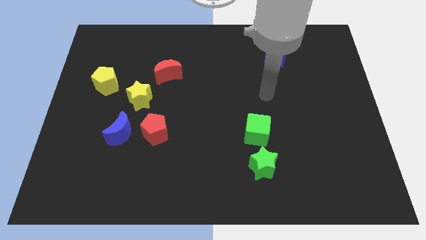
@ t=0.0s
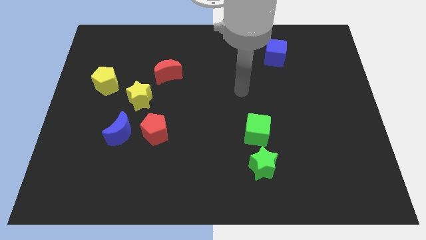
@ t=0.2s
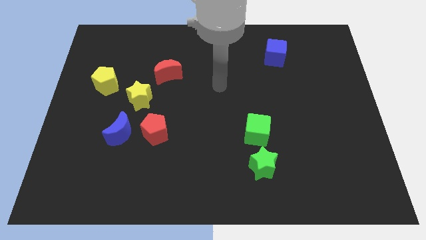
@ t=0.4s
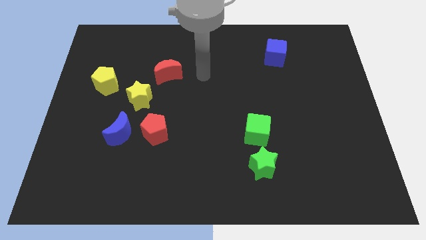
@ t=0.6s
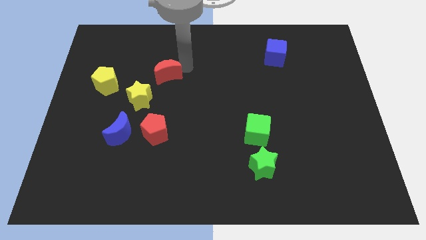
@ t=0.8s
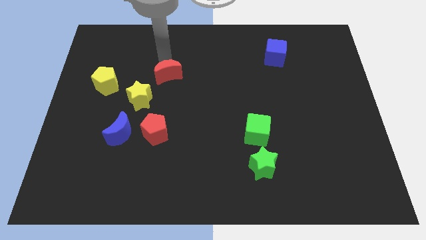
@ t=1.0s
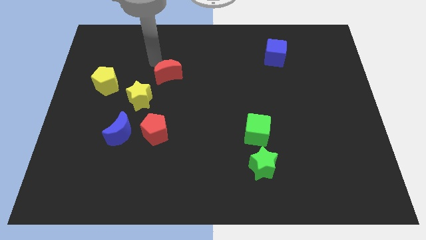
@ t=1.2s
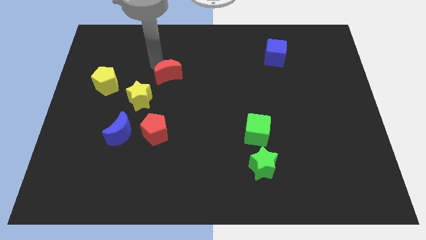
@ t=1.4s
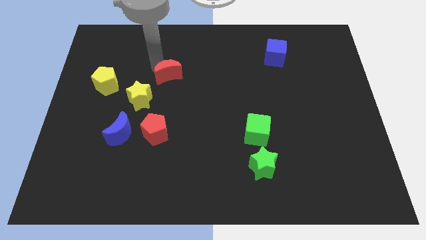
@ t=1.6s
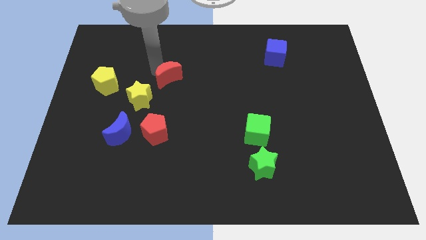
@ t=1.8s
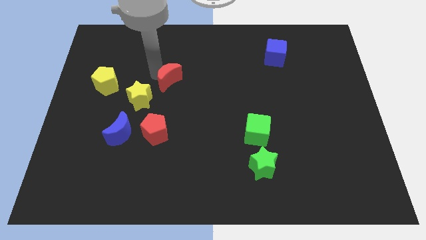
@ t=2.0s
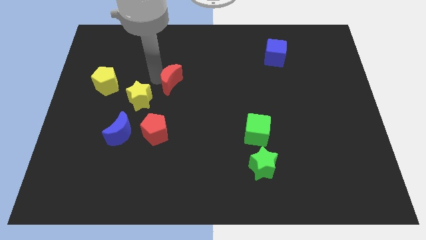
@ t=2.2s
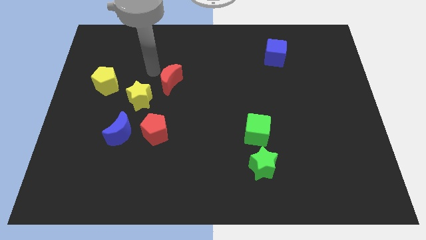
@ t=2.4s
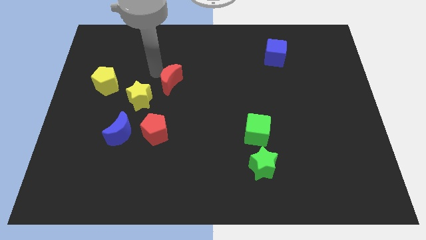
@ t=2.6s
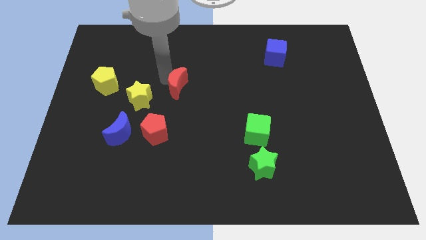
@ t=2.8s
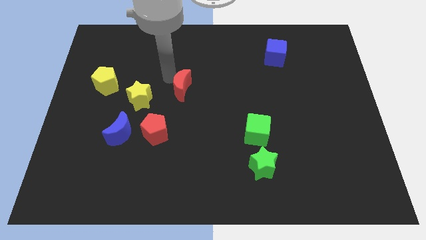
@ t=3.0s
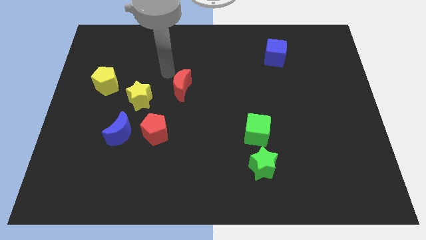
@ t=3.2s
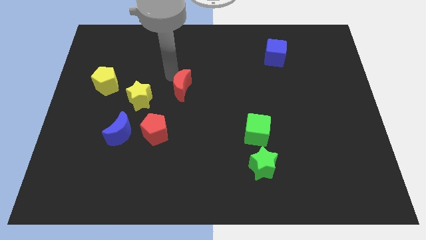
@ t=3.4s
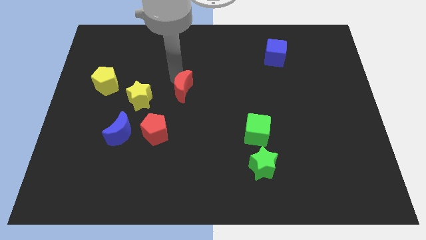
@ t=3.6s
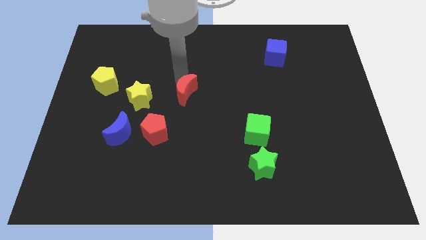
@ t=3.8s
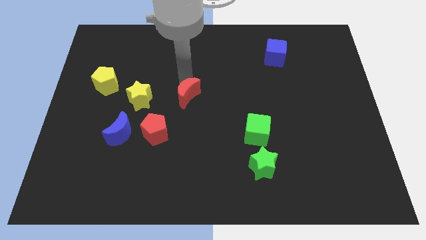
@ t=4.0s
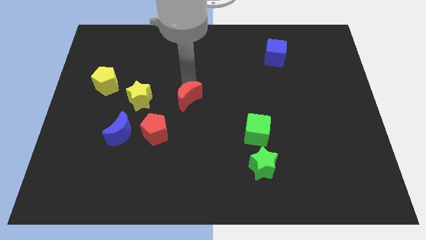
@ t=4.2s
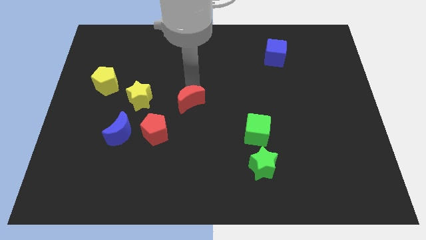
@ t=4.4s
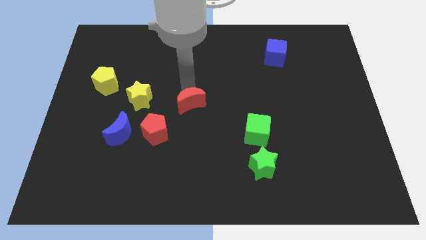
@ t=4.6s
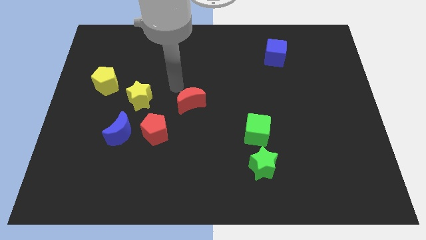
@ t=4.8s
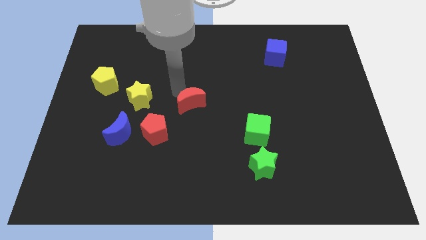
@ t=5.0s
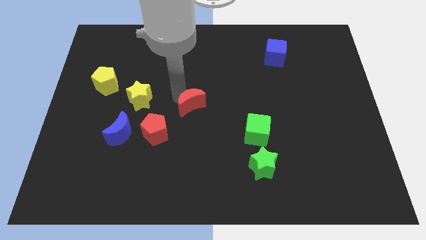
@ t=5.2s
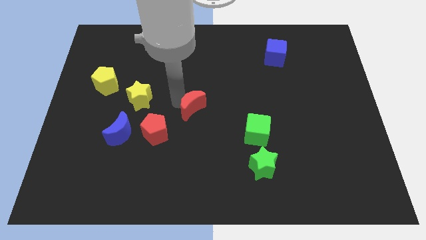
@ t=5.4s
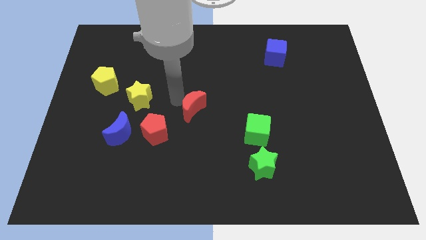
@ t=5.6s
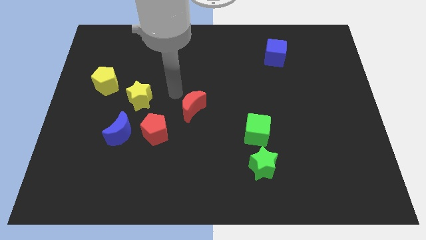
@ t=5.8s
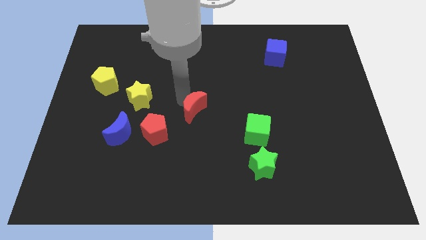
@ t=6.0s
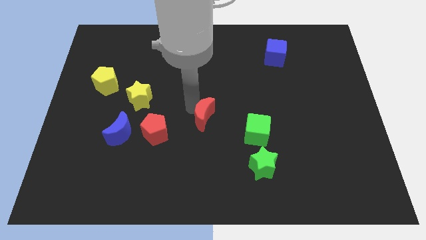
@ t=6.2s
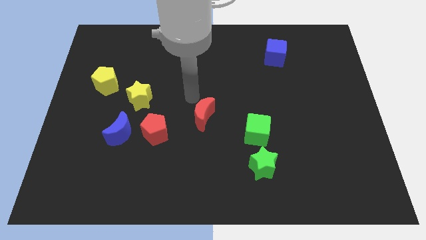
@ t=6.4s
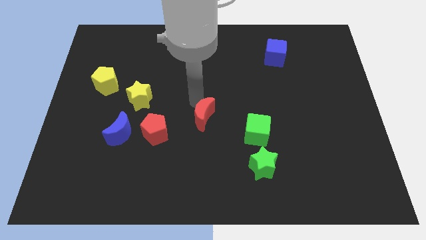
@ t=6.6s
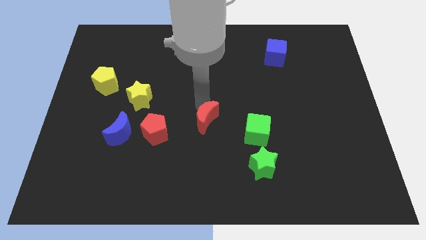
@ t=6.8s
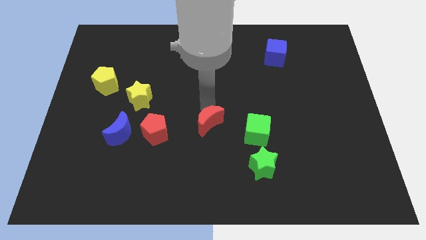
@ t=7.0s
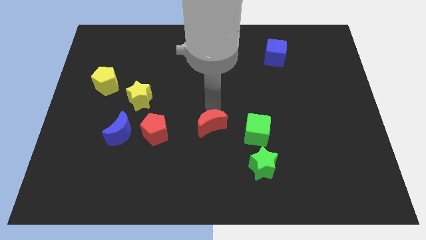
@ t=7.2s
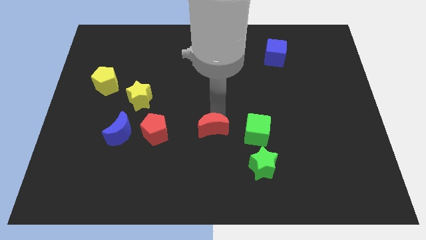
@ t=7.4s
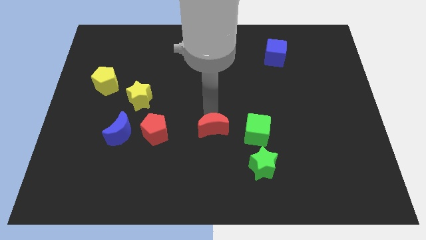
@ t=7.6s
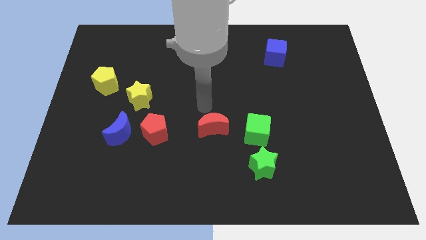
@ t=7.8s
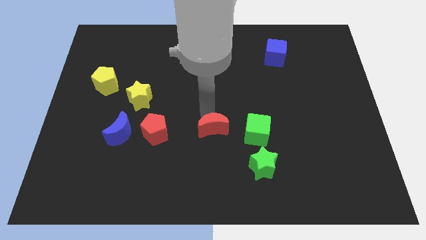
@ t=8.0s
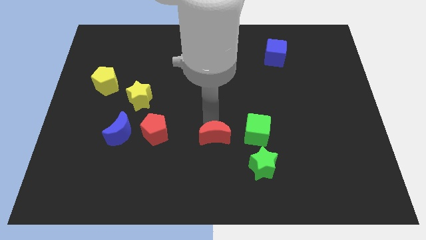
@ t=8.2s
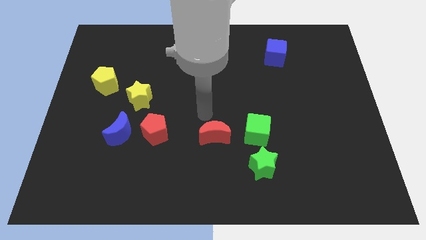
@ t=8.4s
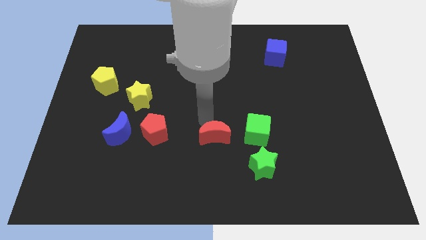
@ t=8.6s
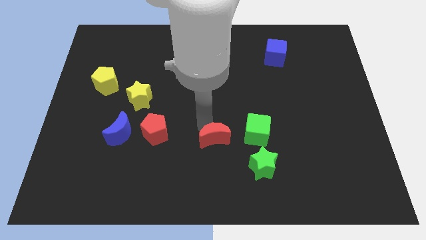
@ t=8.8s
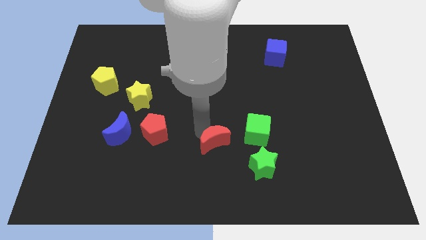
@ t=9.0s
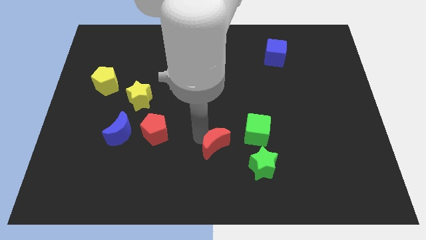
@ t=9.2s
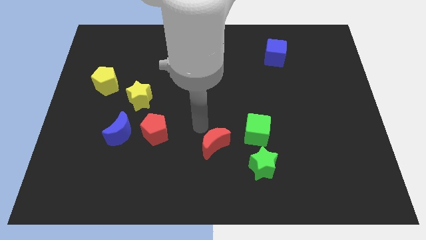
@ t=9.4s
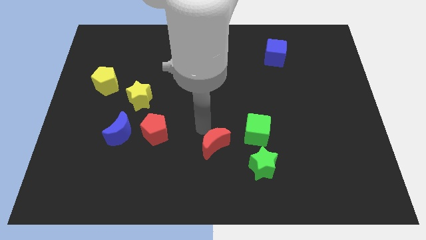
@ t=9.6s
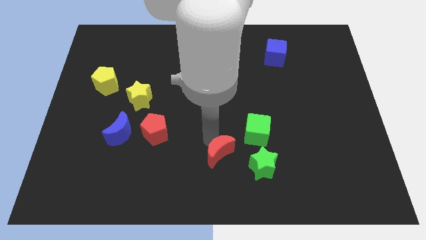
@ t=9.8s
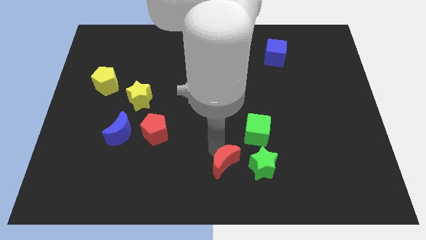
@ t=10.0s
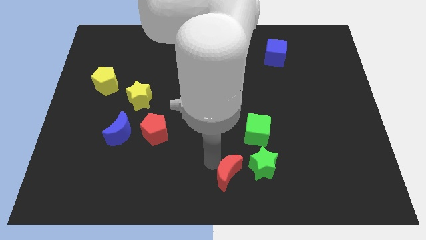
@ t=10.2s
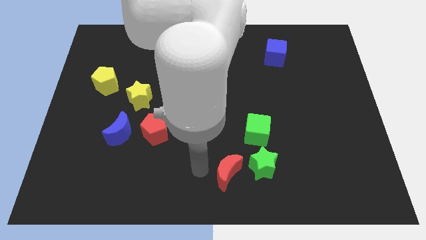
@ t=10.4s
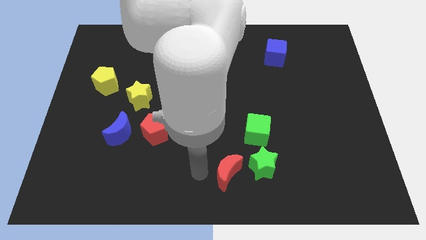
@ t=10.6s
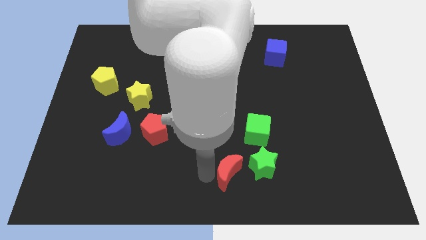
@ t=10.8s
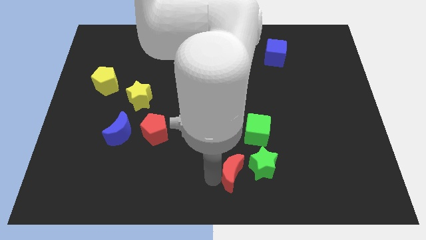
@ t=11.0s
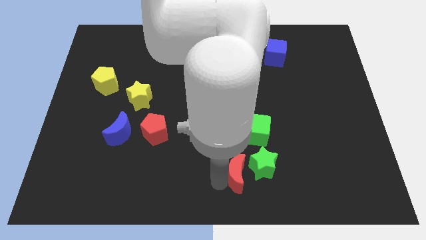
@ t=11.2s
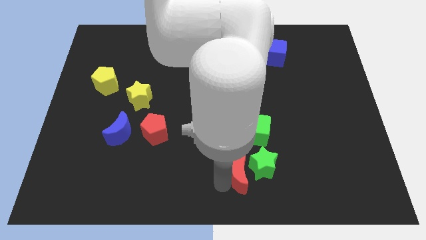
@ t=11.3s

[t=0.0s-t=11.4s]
move the red moon below the green cube

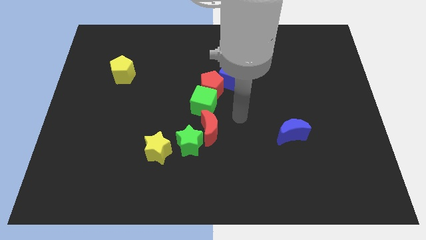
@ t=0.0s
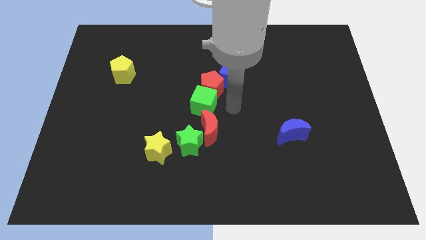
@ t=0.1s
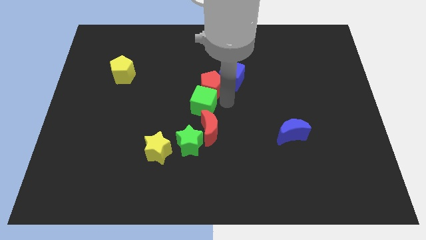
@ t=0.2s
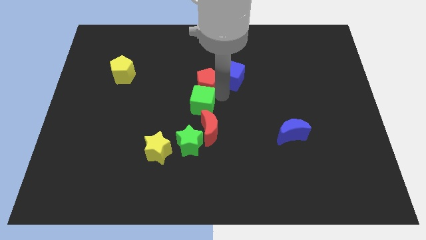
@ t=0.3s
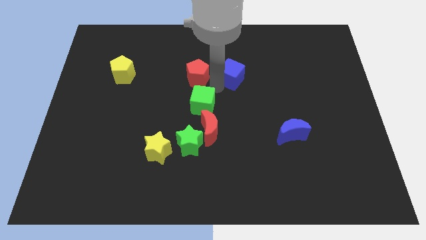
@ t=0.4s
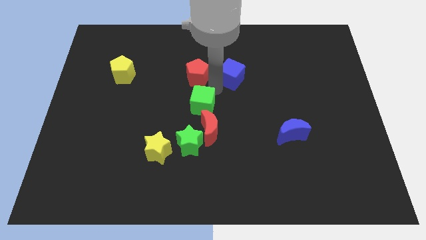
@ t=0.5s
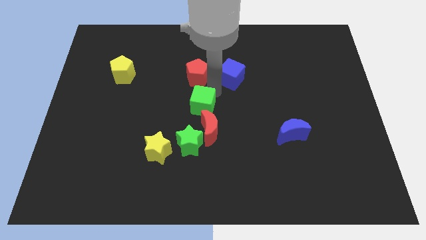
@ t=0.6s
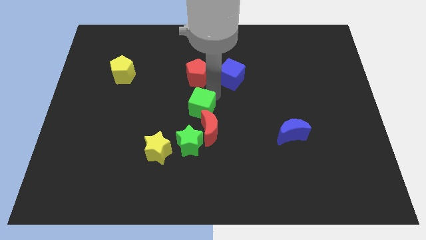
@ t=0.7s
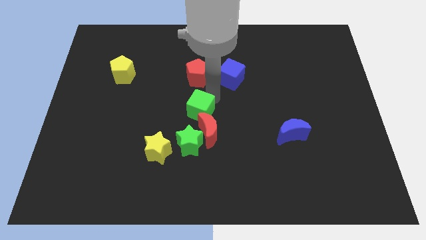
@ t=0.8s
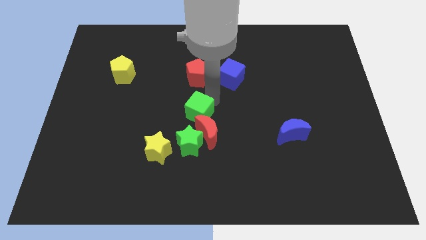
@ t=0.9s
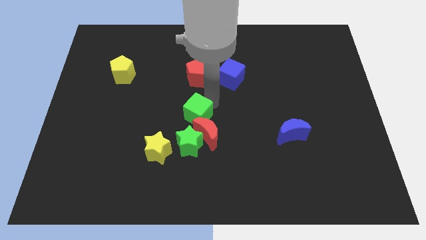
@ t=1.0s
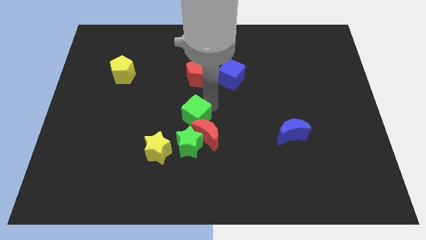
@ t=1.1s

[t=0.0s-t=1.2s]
push the green cube diagonally up and to the right of the yellow star
